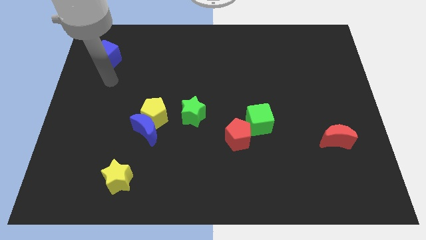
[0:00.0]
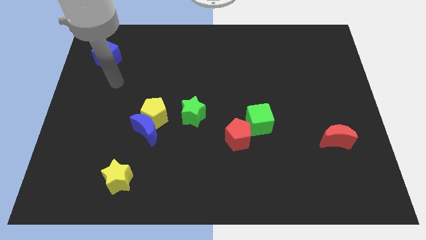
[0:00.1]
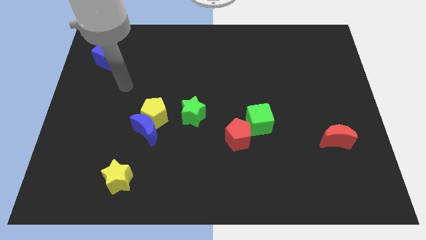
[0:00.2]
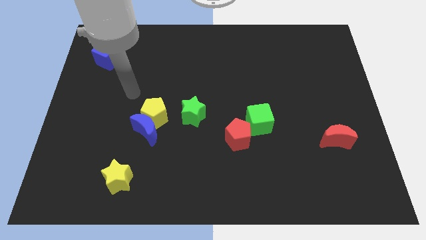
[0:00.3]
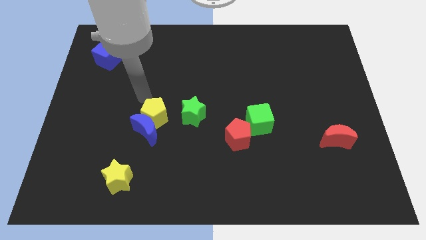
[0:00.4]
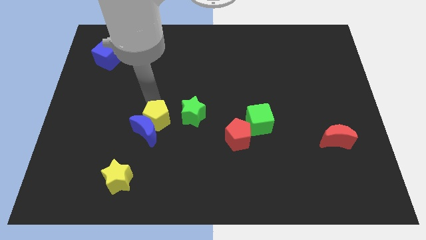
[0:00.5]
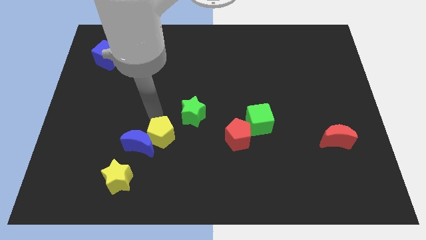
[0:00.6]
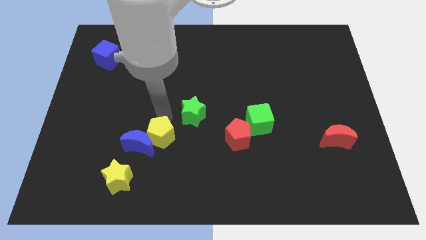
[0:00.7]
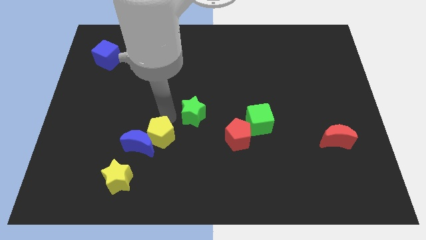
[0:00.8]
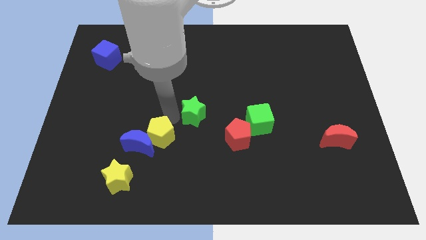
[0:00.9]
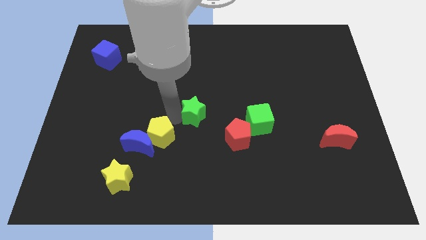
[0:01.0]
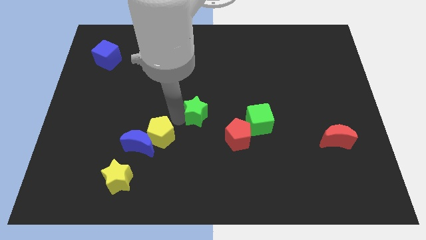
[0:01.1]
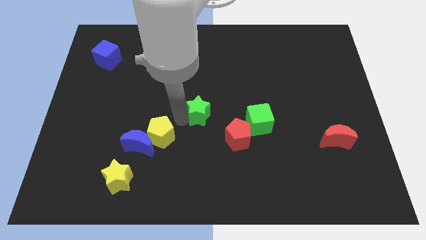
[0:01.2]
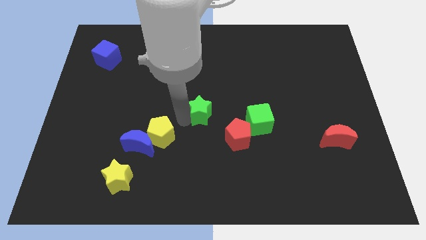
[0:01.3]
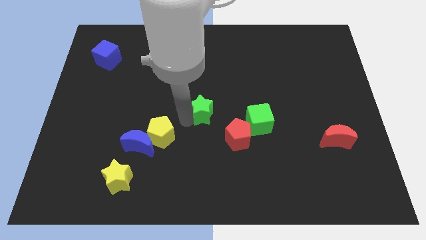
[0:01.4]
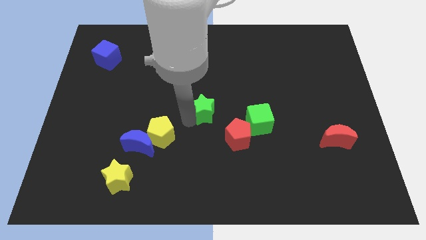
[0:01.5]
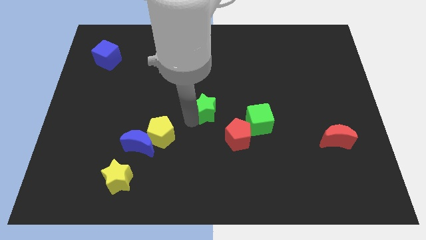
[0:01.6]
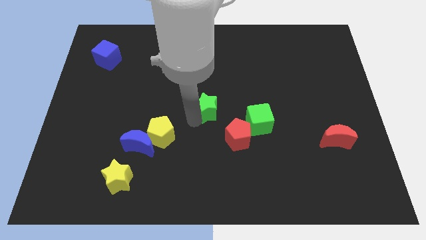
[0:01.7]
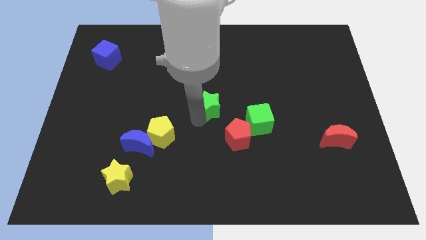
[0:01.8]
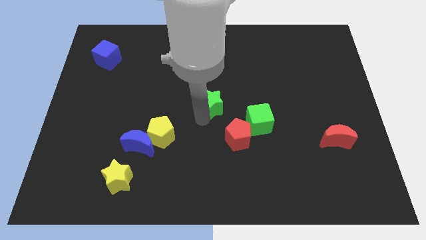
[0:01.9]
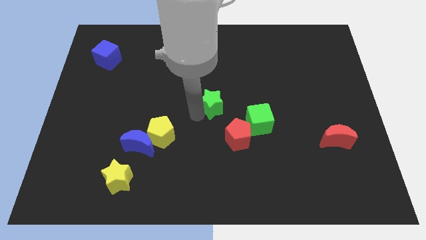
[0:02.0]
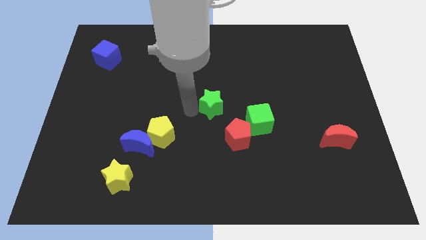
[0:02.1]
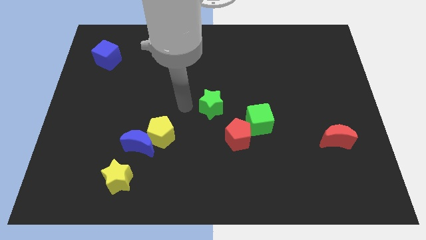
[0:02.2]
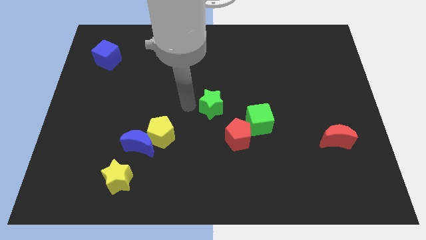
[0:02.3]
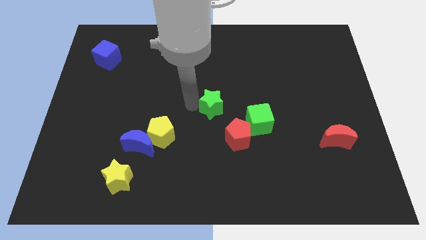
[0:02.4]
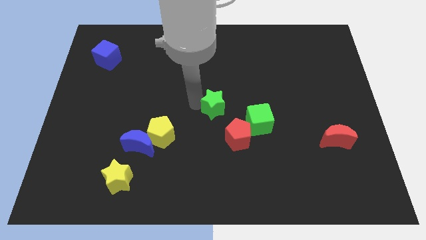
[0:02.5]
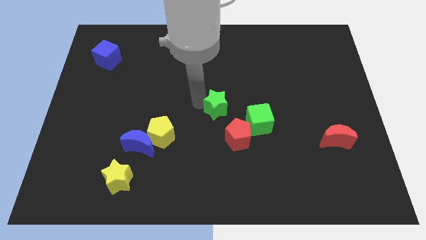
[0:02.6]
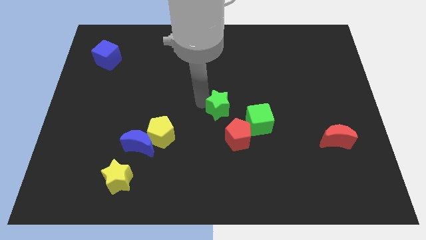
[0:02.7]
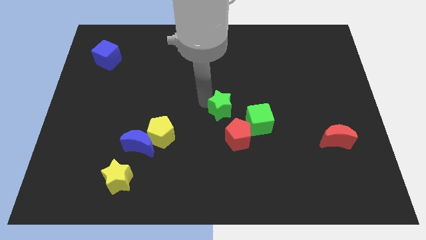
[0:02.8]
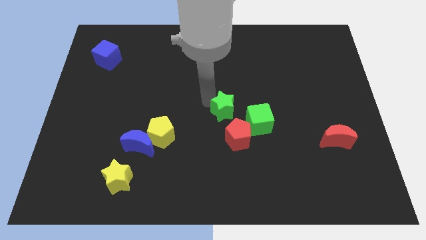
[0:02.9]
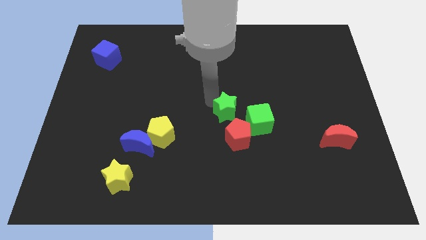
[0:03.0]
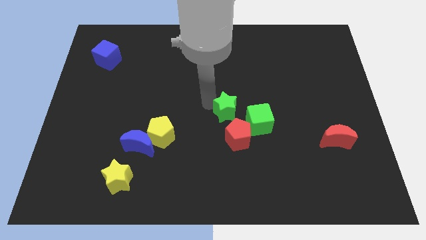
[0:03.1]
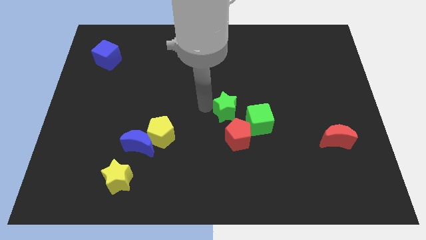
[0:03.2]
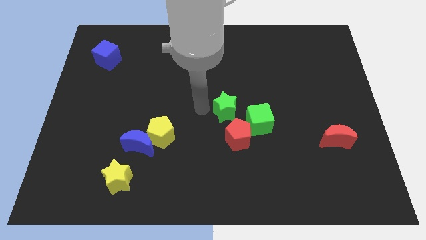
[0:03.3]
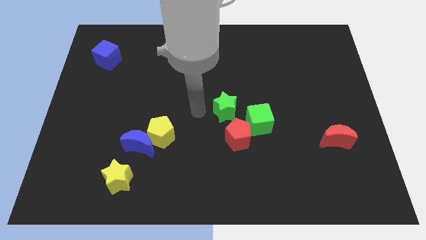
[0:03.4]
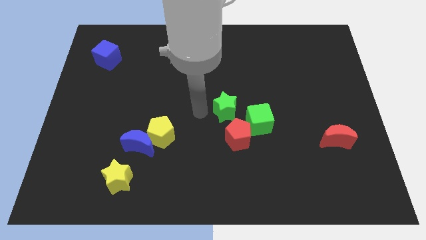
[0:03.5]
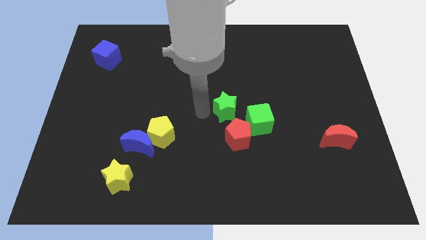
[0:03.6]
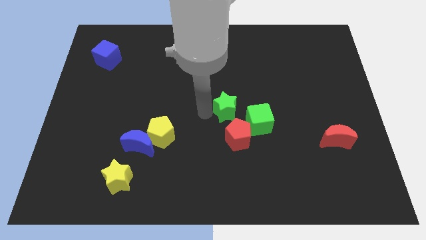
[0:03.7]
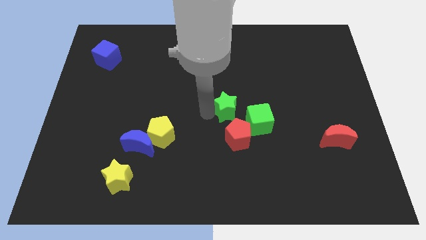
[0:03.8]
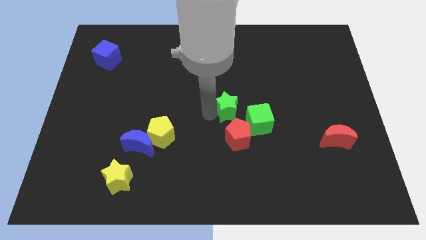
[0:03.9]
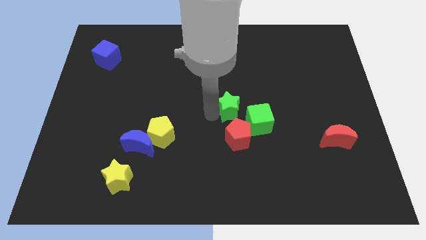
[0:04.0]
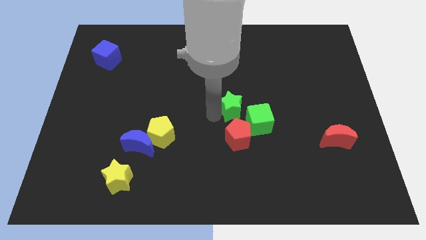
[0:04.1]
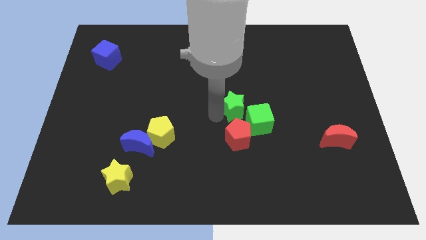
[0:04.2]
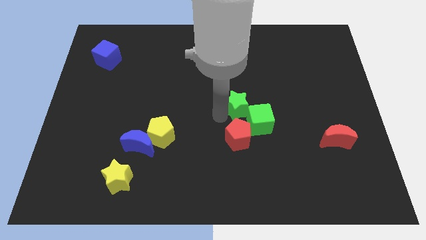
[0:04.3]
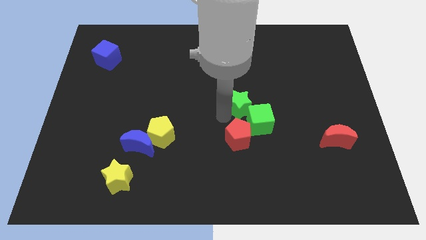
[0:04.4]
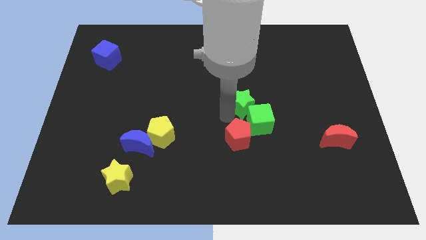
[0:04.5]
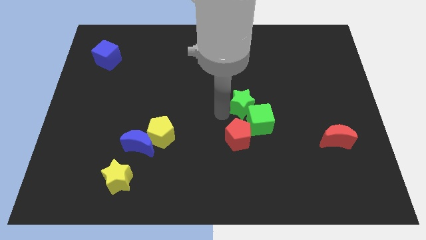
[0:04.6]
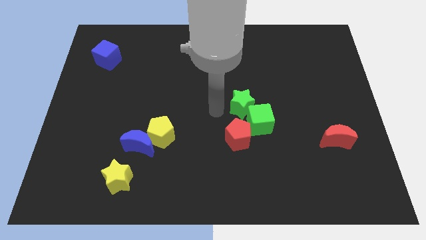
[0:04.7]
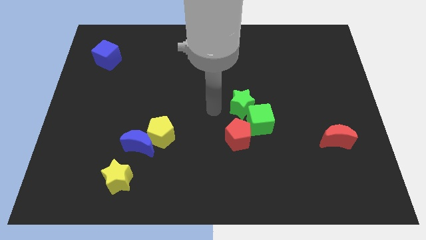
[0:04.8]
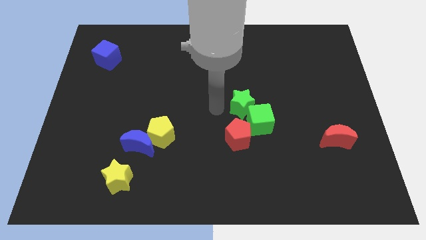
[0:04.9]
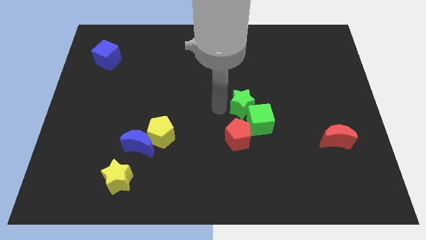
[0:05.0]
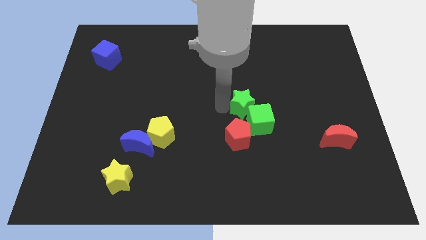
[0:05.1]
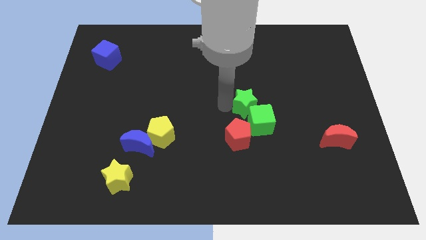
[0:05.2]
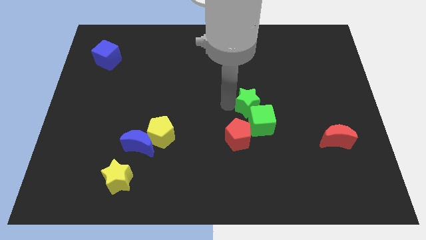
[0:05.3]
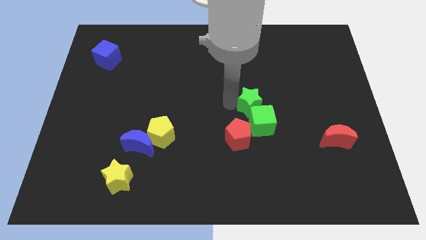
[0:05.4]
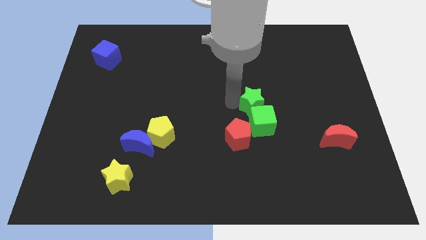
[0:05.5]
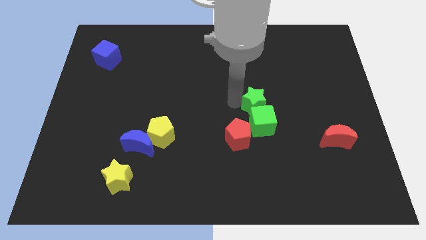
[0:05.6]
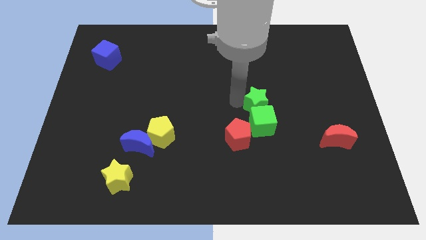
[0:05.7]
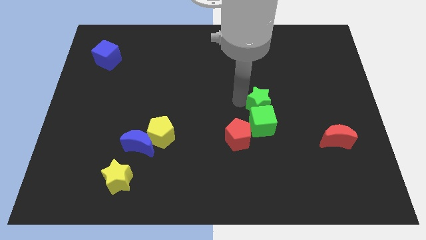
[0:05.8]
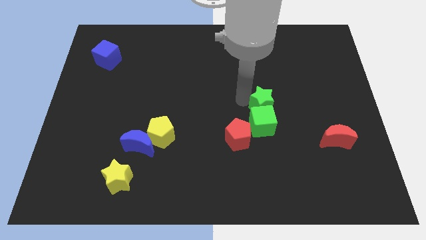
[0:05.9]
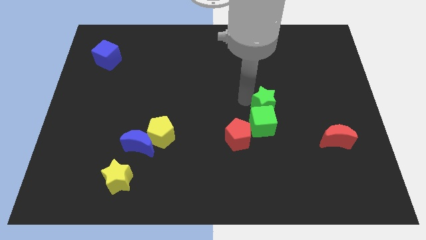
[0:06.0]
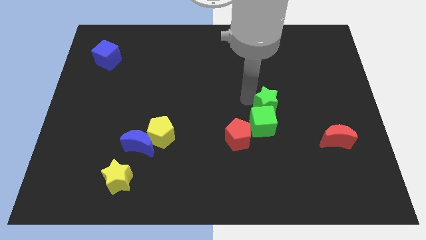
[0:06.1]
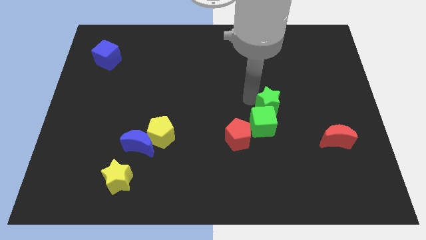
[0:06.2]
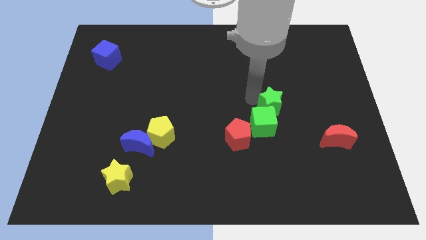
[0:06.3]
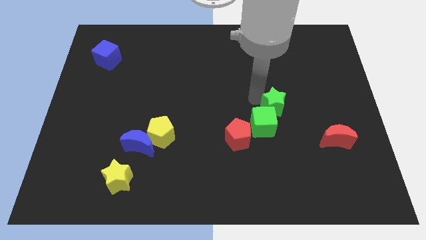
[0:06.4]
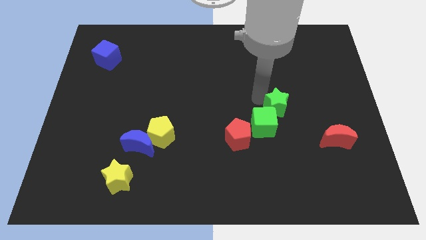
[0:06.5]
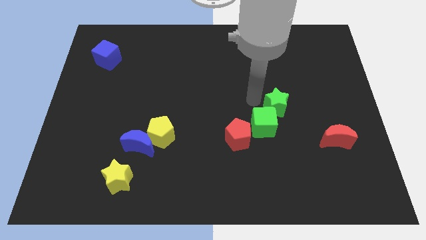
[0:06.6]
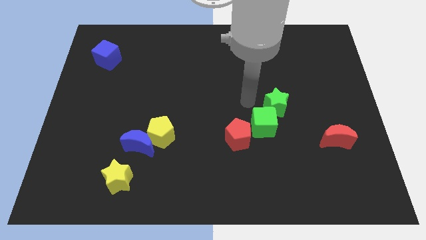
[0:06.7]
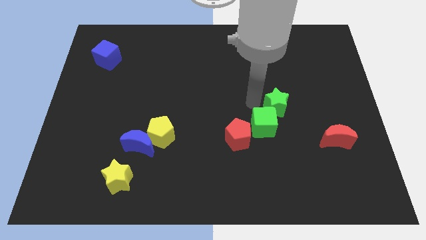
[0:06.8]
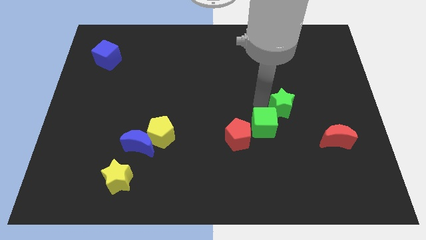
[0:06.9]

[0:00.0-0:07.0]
slide the green star to the right

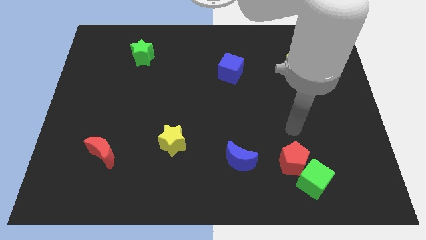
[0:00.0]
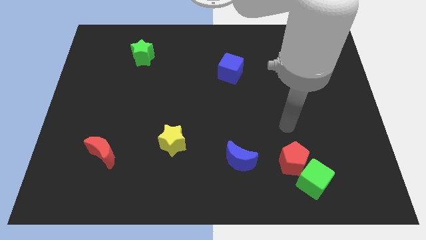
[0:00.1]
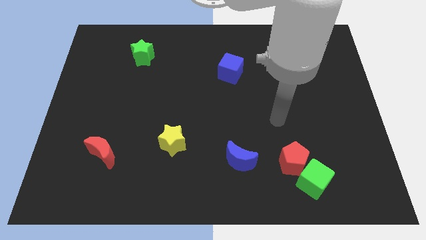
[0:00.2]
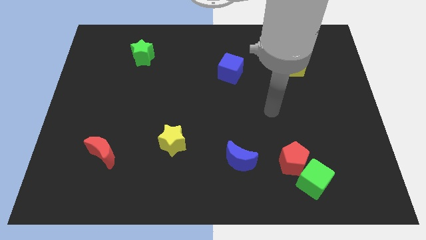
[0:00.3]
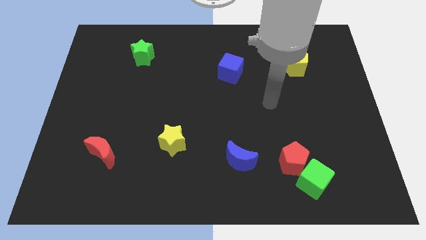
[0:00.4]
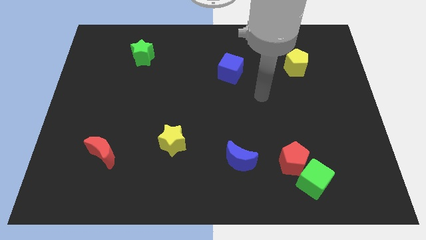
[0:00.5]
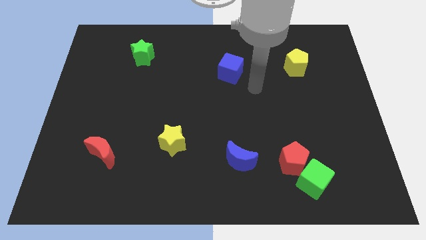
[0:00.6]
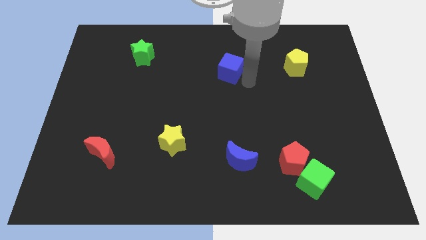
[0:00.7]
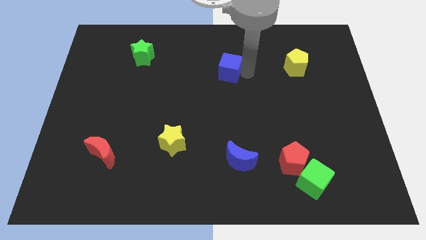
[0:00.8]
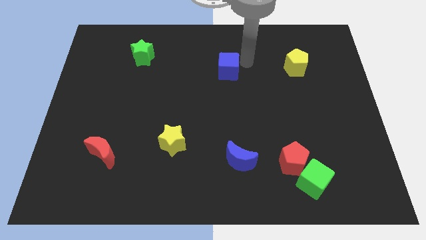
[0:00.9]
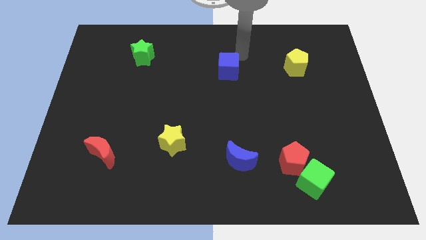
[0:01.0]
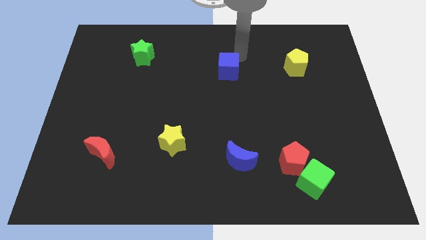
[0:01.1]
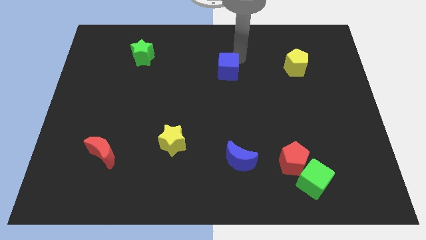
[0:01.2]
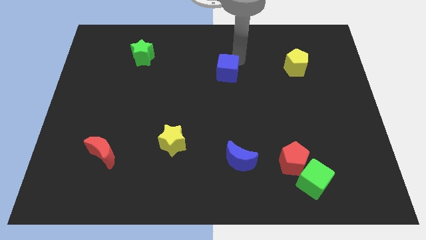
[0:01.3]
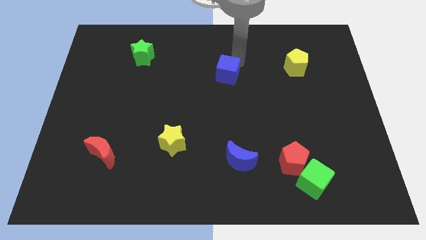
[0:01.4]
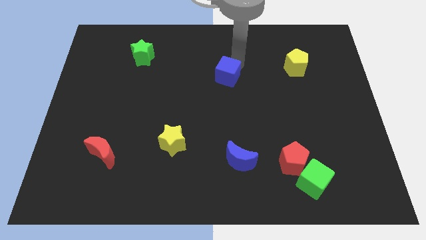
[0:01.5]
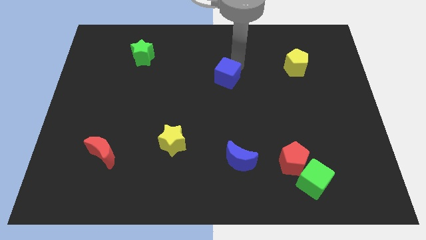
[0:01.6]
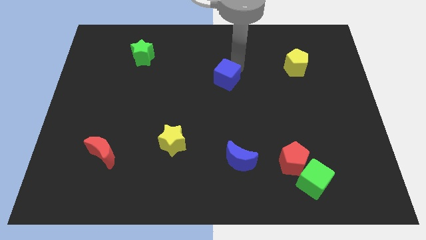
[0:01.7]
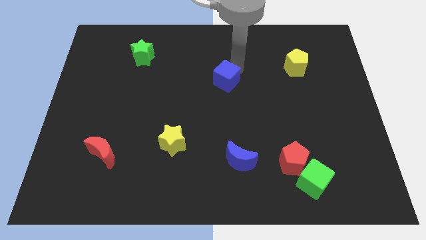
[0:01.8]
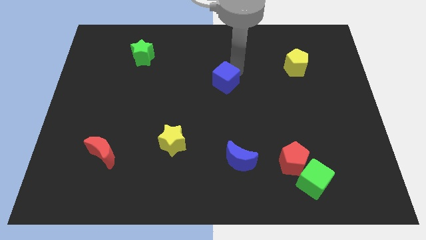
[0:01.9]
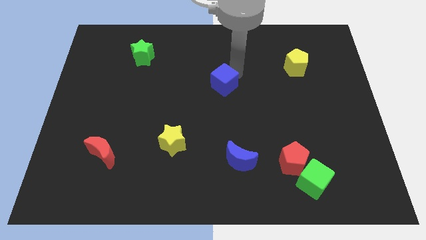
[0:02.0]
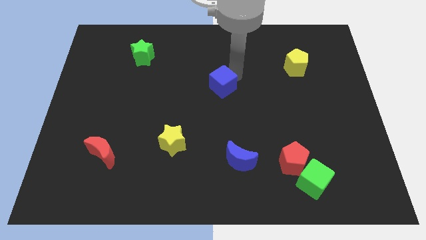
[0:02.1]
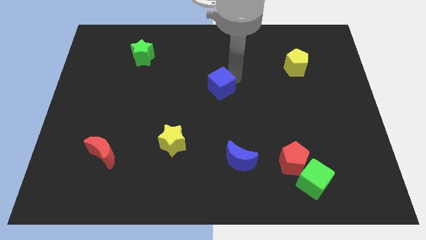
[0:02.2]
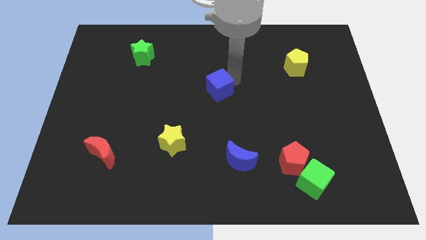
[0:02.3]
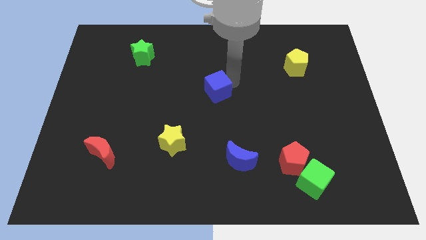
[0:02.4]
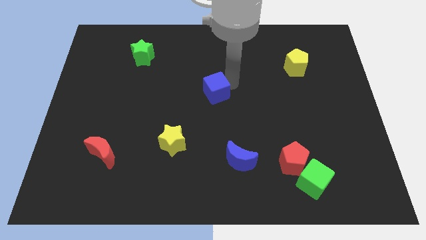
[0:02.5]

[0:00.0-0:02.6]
push the blue cube down and then to the left somewhat
